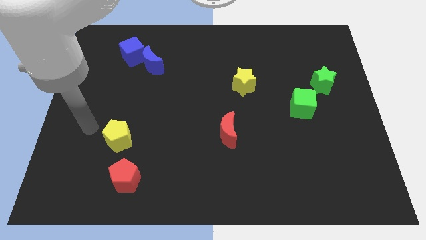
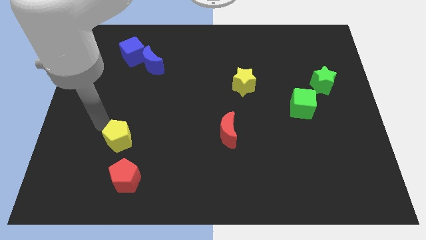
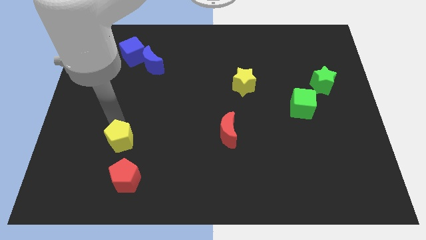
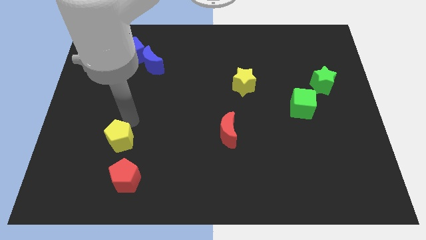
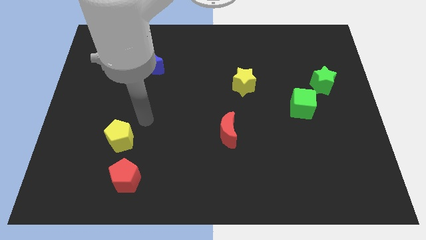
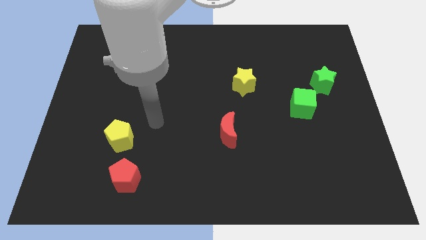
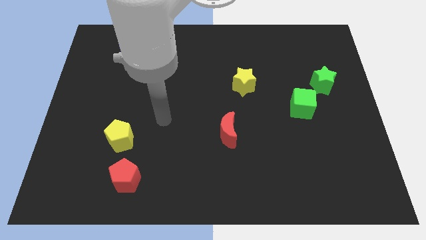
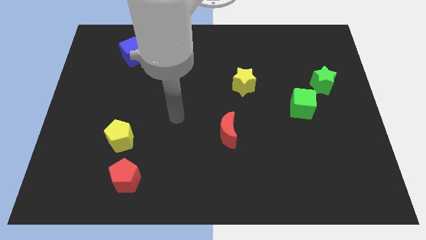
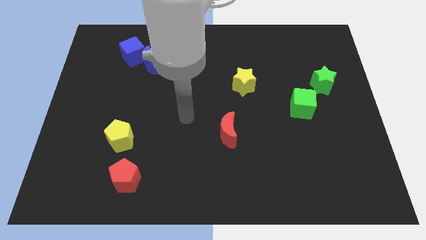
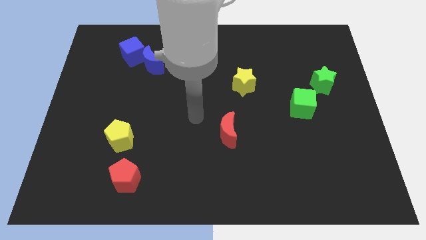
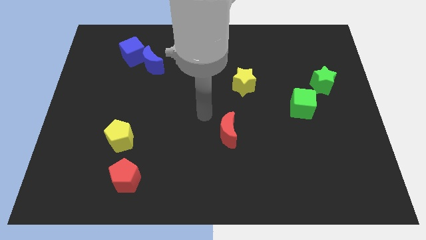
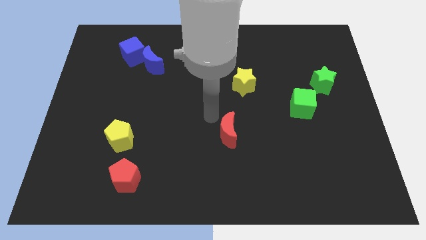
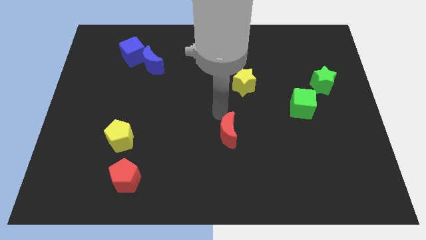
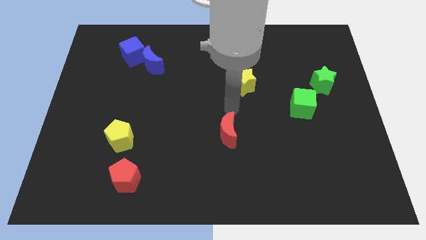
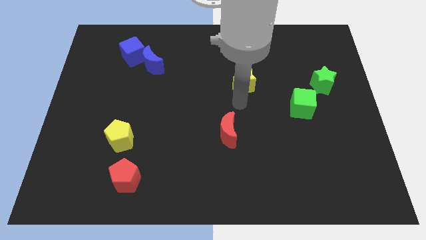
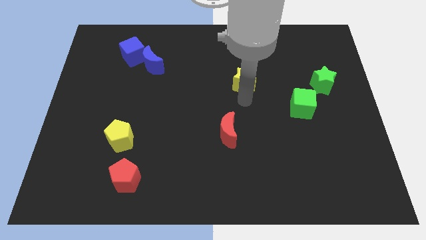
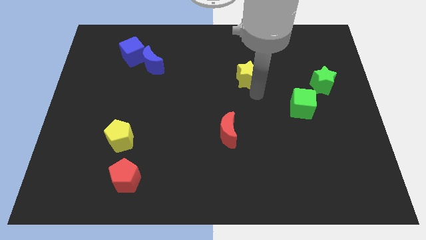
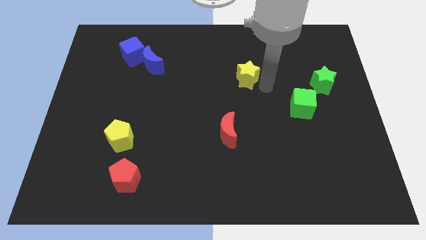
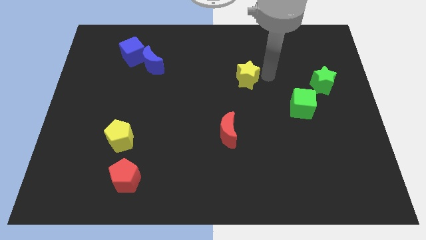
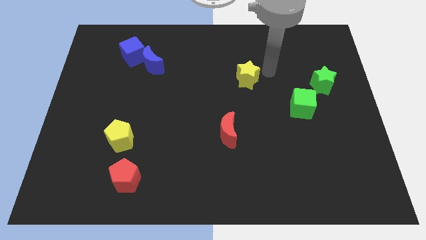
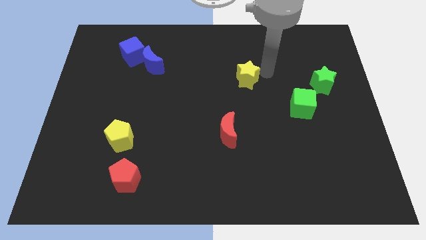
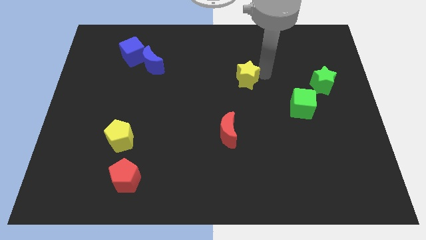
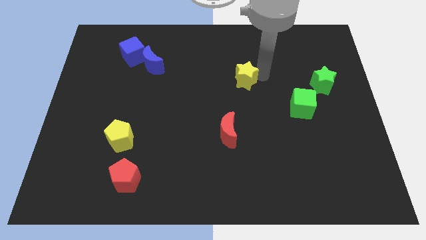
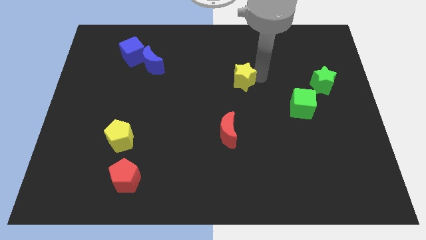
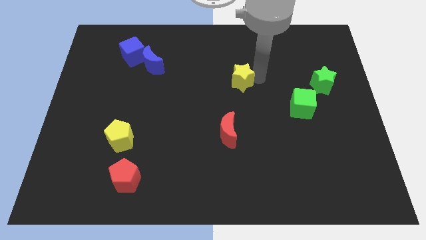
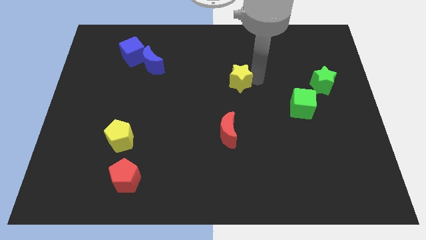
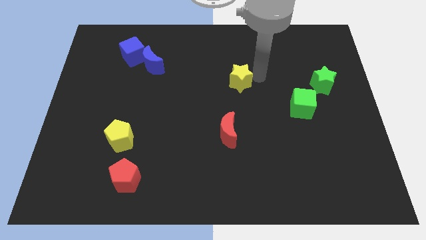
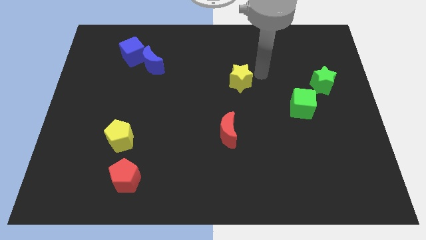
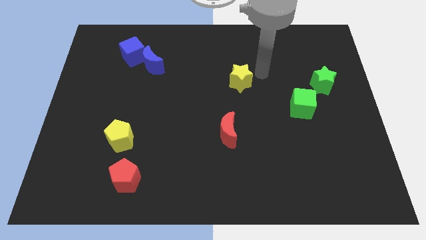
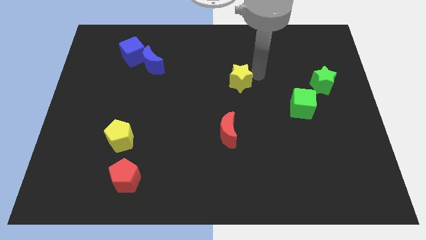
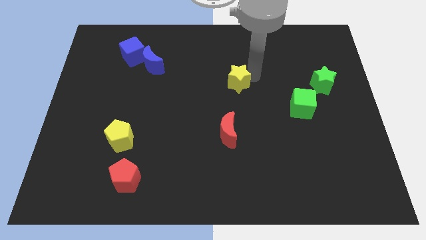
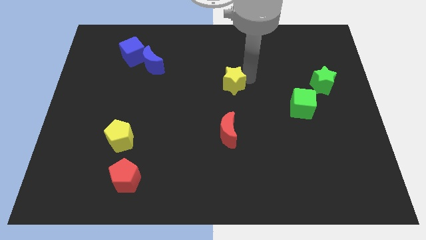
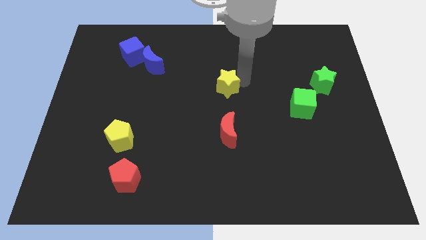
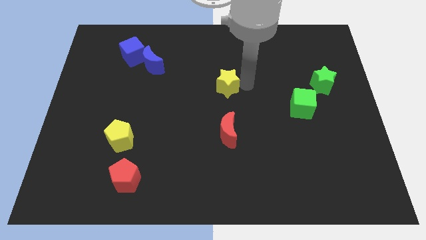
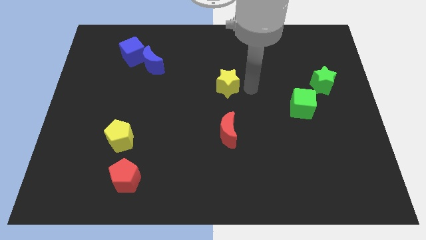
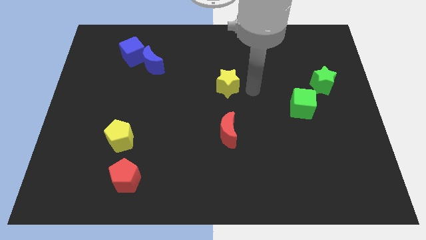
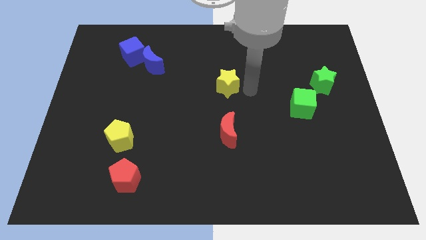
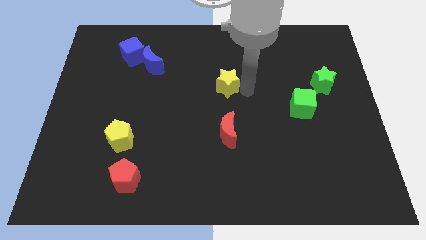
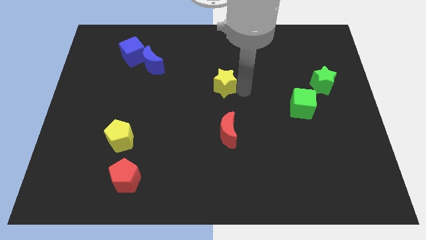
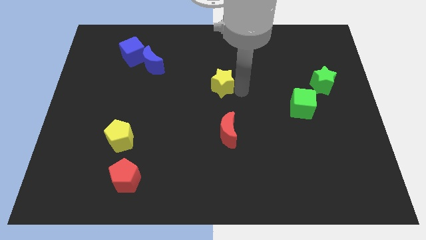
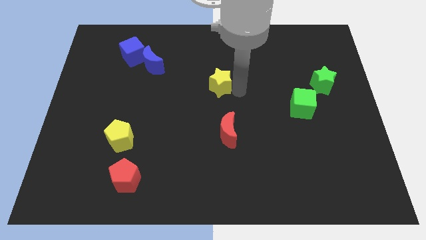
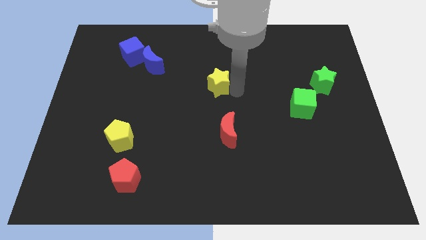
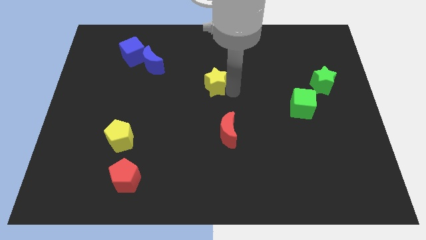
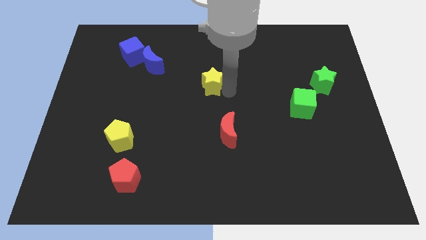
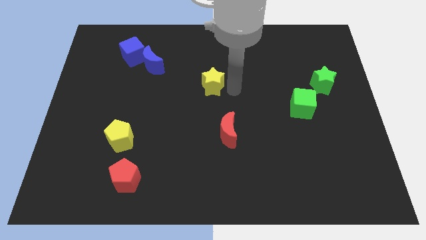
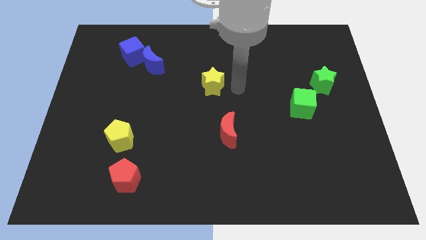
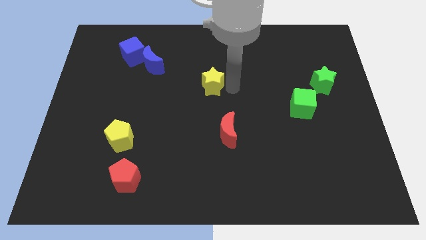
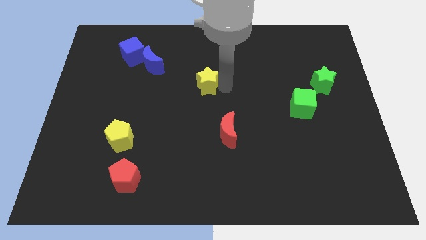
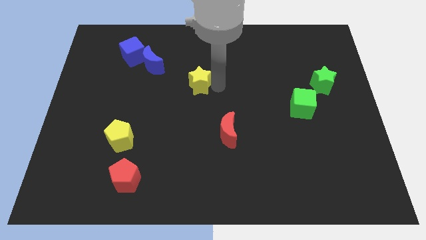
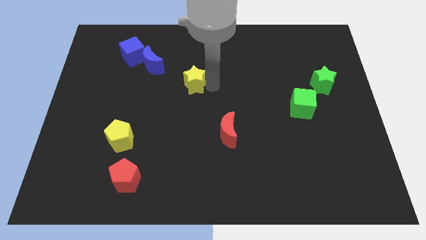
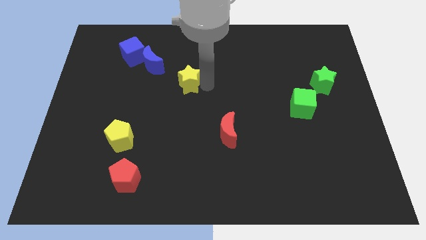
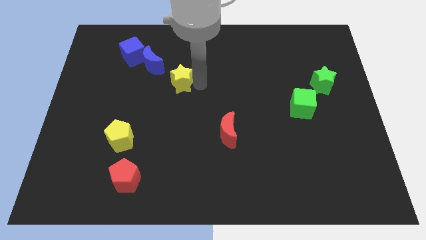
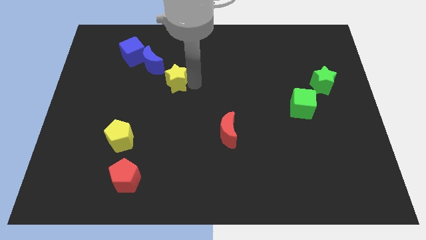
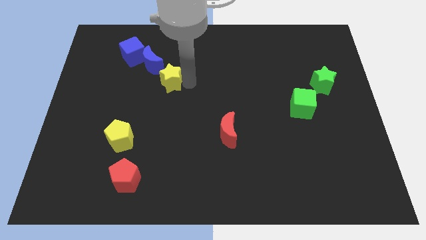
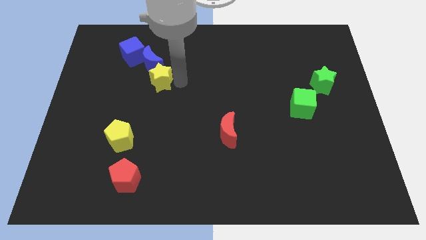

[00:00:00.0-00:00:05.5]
slide the yellow star left

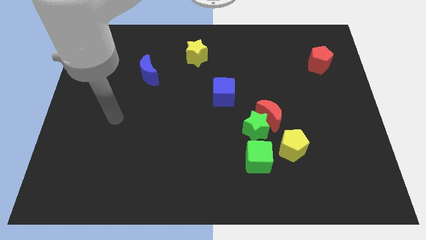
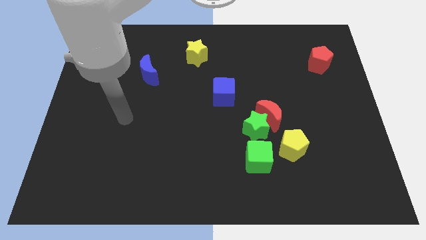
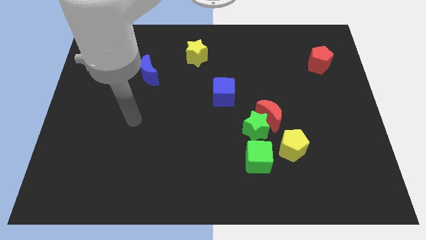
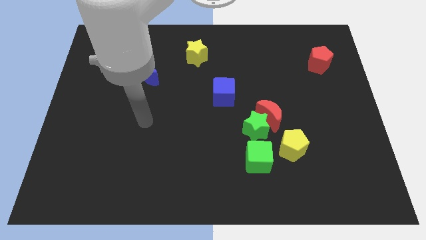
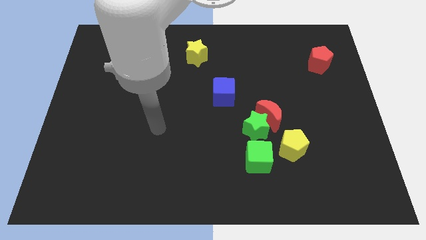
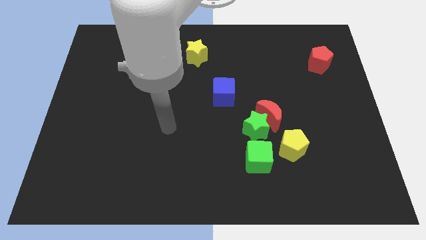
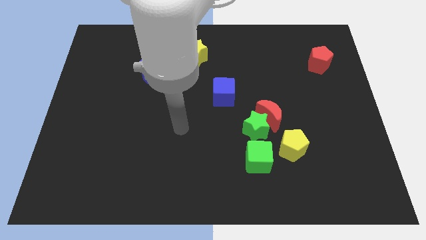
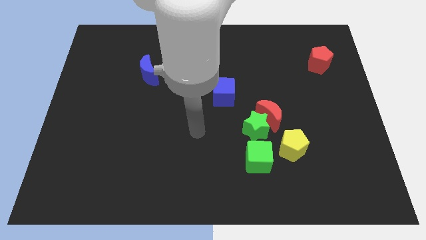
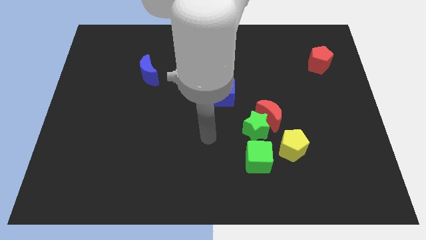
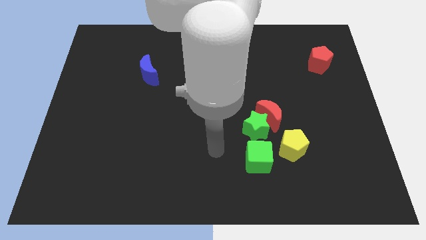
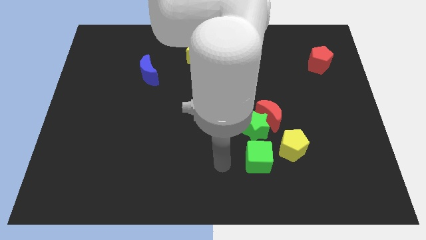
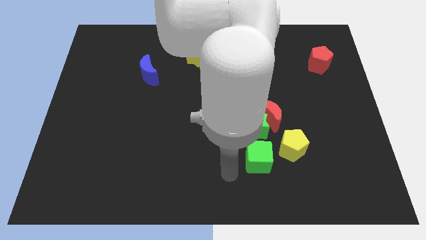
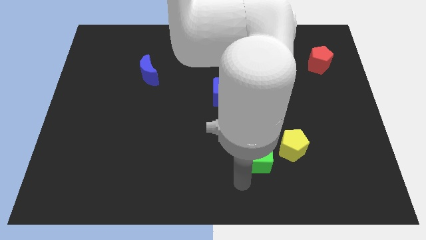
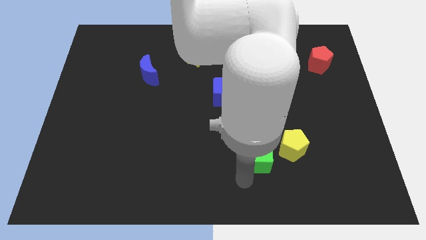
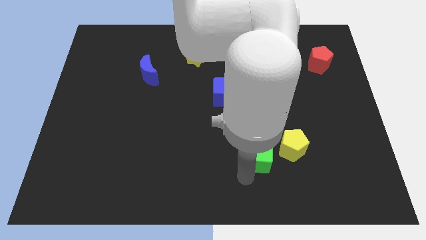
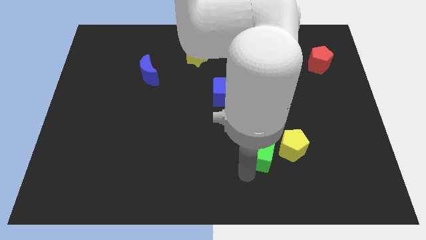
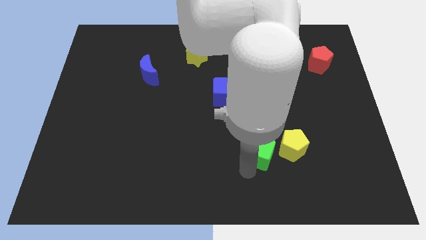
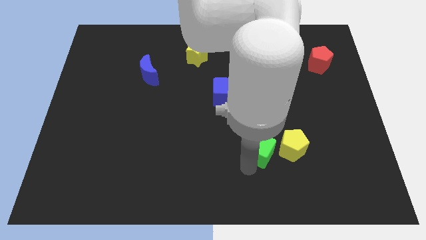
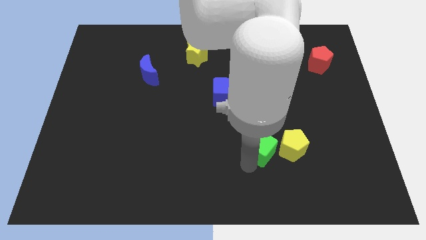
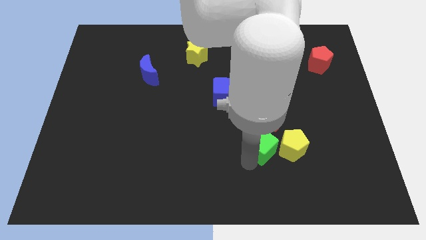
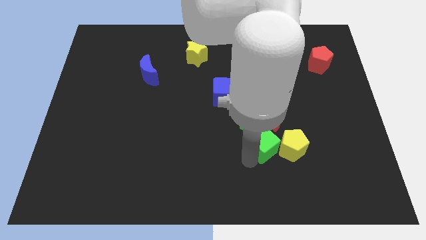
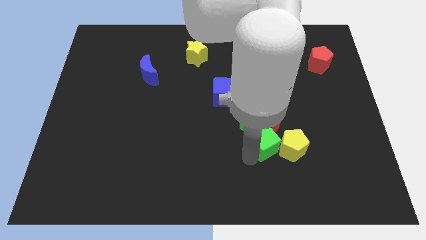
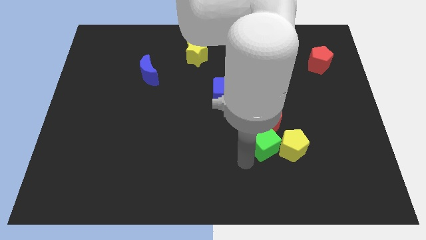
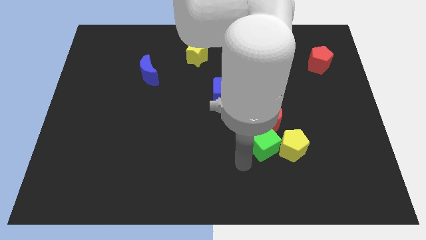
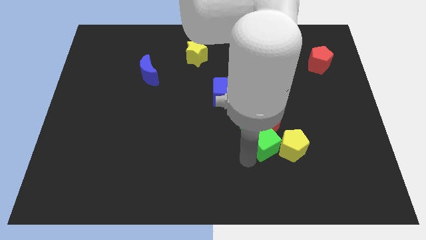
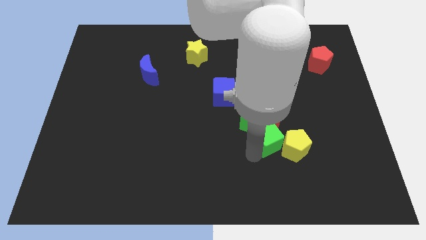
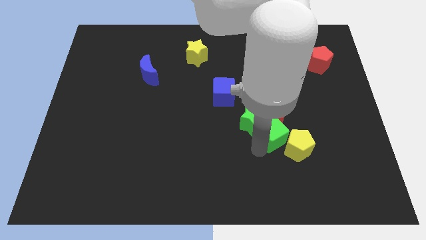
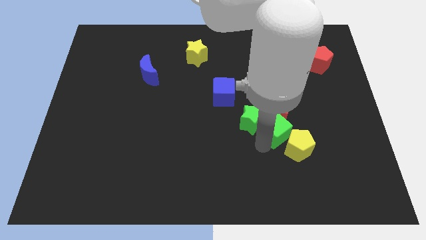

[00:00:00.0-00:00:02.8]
slightly slide the green cube upwards and right diagonally
